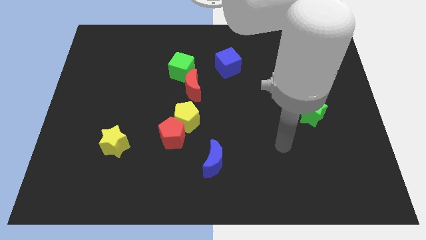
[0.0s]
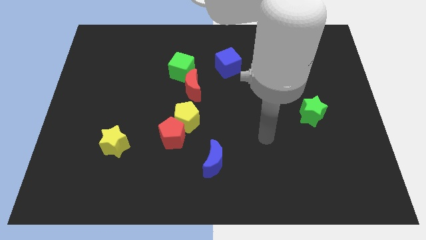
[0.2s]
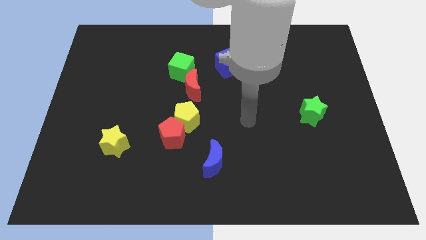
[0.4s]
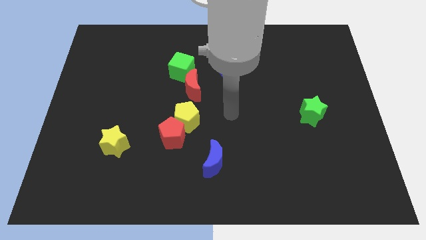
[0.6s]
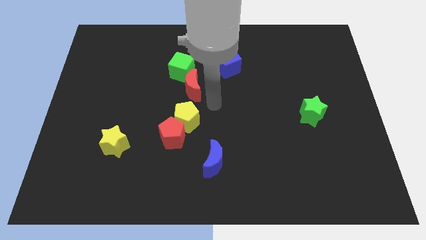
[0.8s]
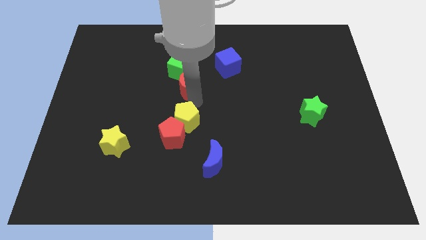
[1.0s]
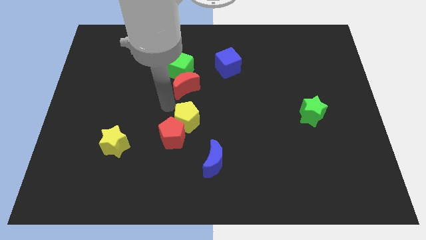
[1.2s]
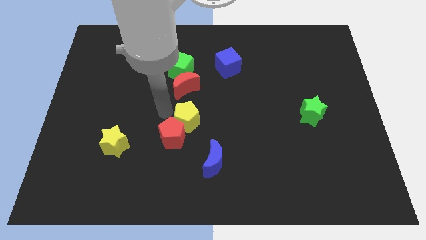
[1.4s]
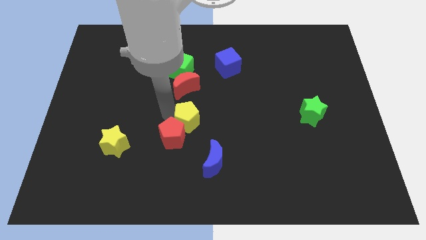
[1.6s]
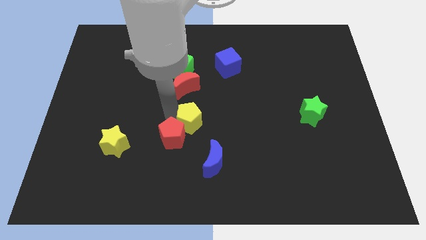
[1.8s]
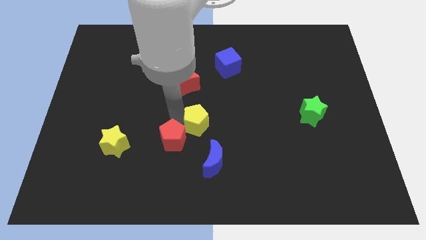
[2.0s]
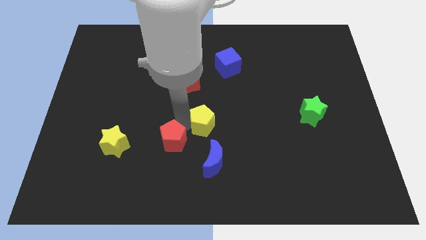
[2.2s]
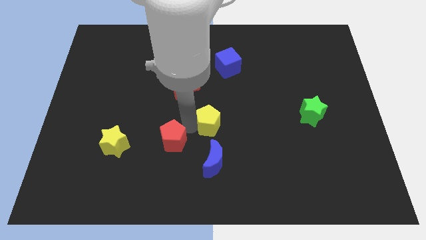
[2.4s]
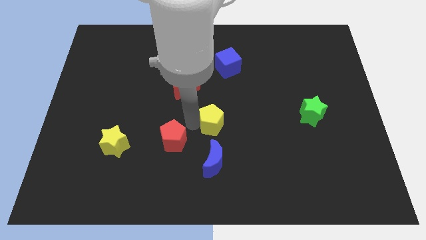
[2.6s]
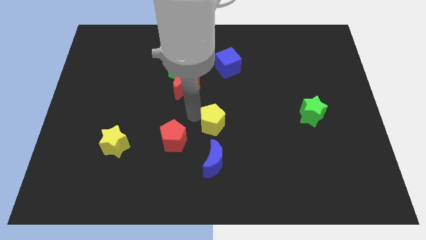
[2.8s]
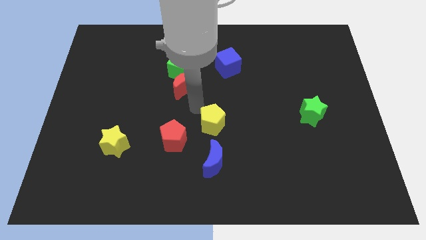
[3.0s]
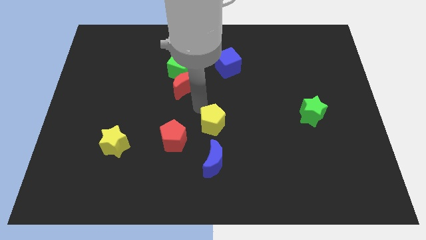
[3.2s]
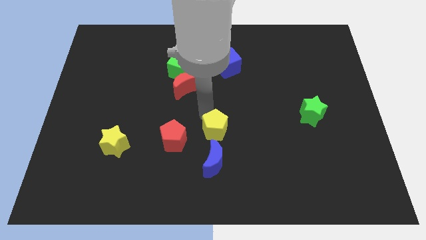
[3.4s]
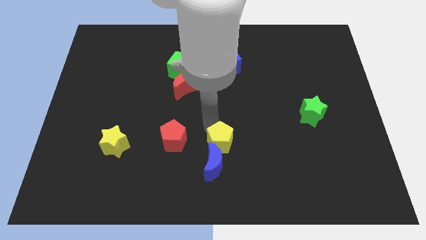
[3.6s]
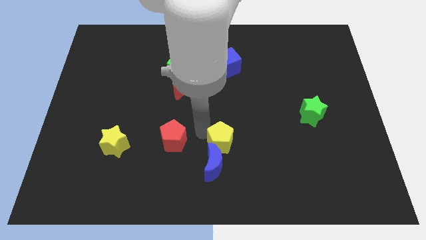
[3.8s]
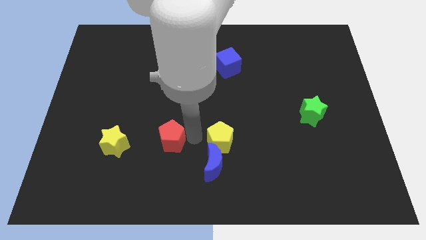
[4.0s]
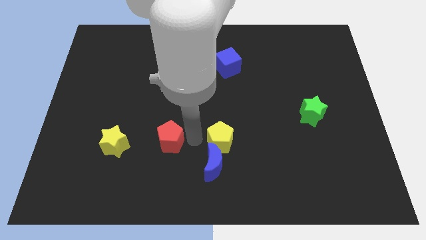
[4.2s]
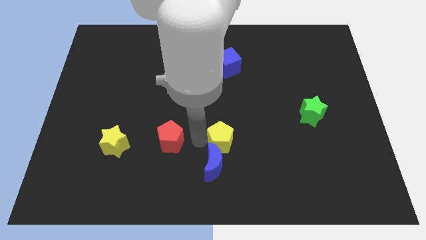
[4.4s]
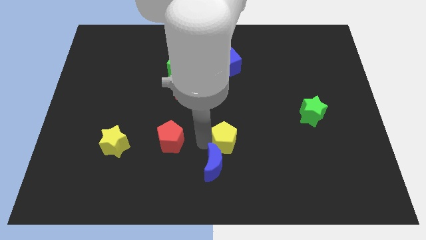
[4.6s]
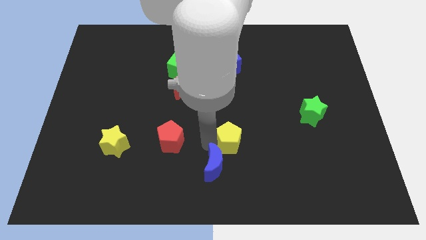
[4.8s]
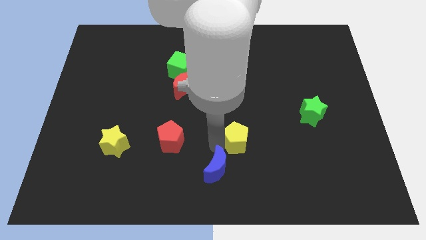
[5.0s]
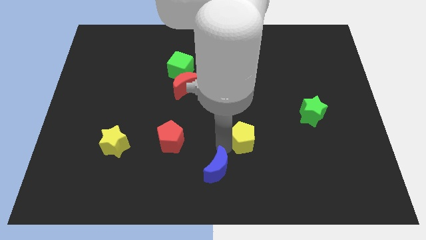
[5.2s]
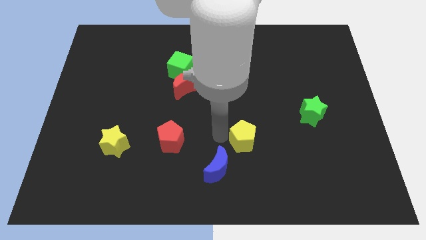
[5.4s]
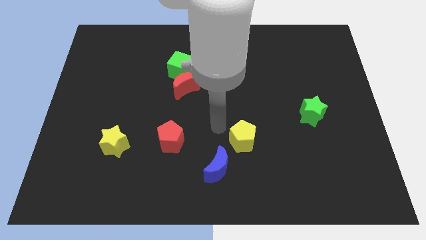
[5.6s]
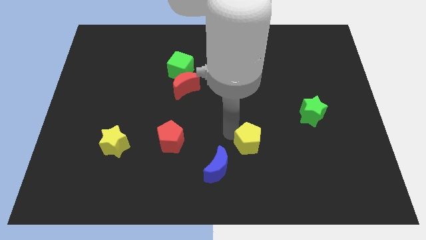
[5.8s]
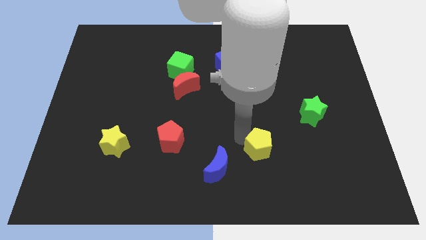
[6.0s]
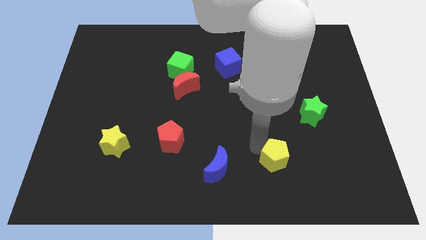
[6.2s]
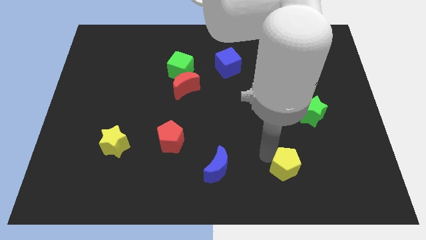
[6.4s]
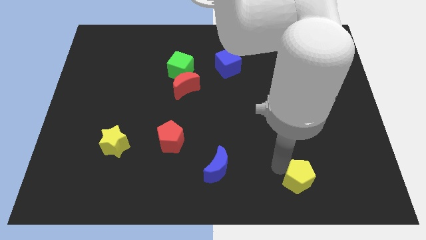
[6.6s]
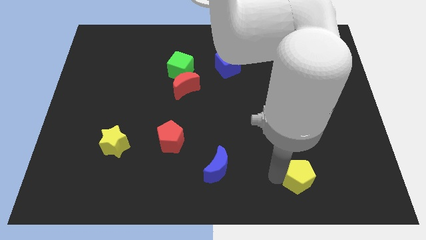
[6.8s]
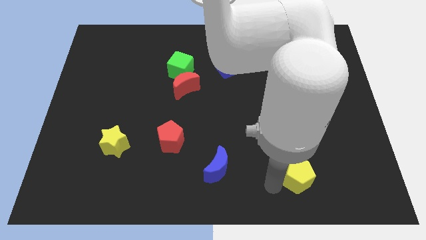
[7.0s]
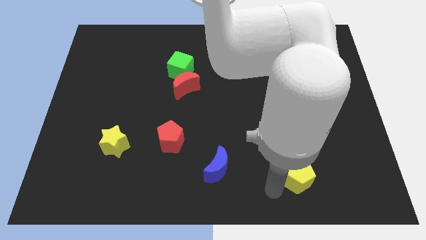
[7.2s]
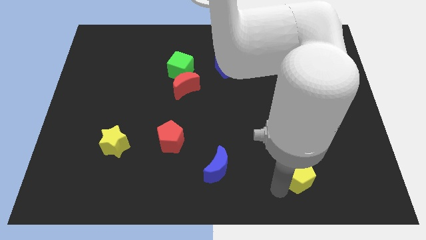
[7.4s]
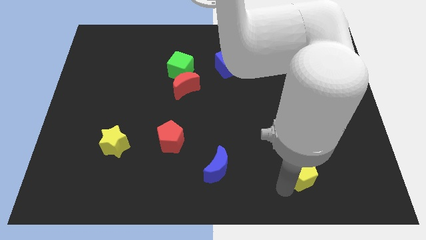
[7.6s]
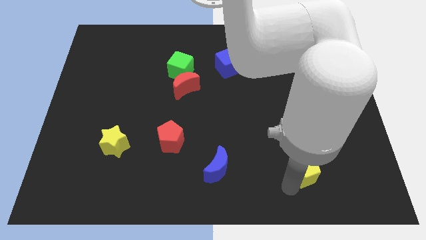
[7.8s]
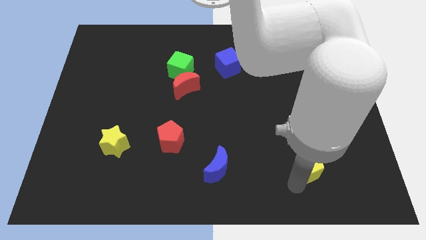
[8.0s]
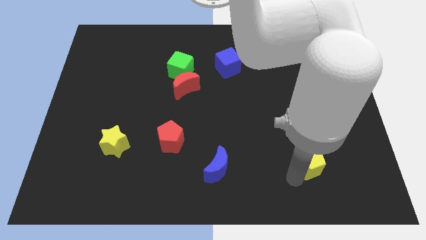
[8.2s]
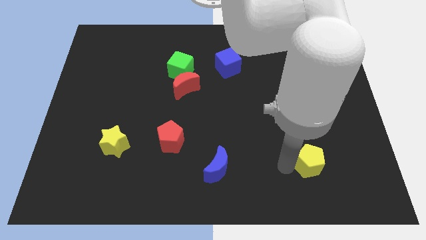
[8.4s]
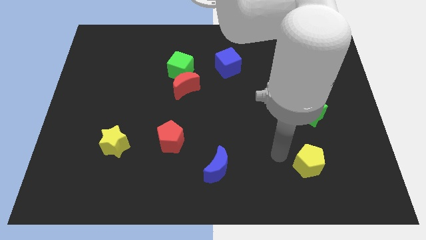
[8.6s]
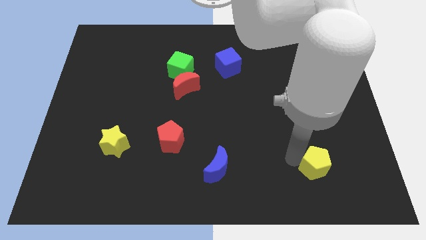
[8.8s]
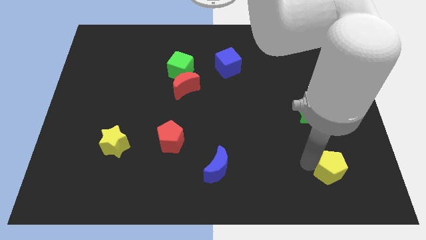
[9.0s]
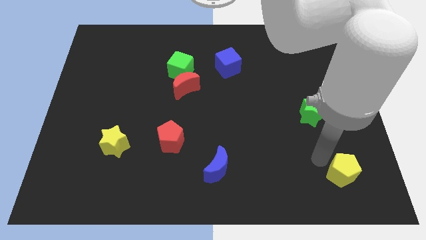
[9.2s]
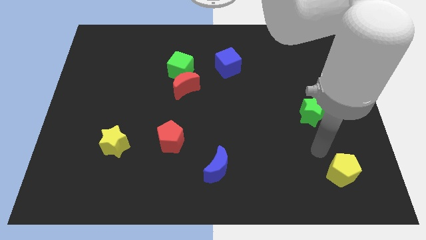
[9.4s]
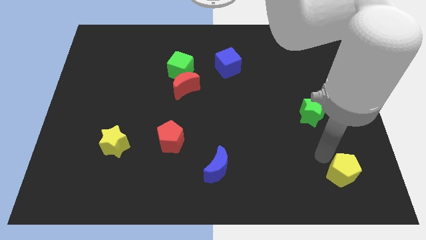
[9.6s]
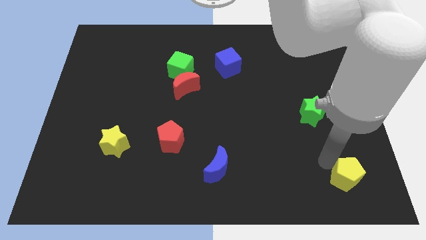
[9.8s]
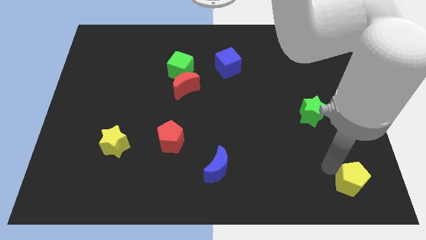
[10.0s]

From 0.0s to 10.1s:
put the yellow pentagon to the lower right corner

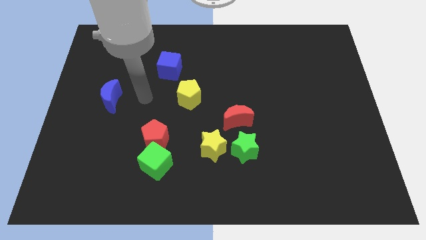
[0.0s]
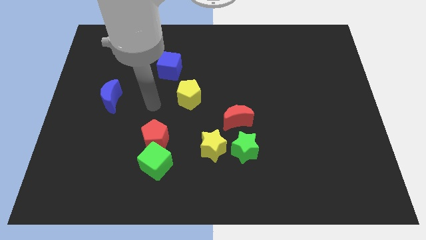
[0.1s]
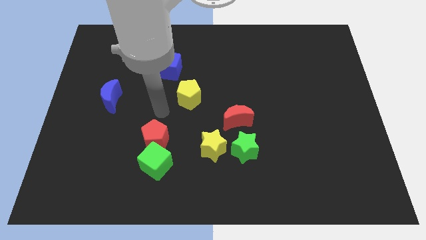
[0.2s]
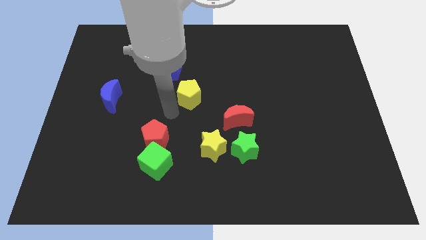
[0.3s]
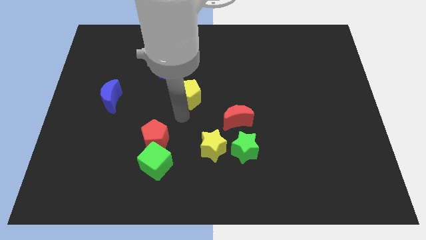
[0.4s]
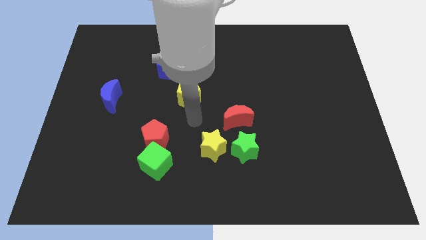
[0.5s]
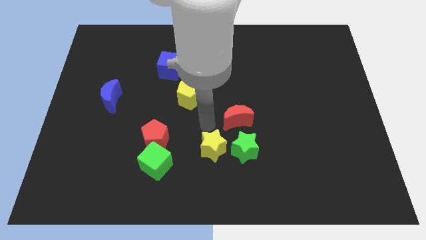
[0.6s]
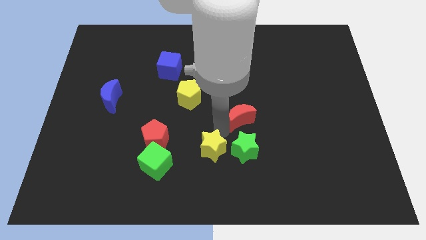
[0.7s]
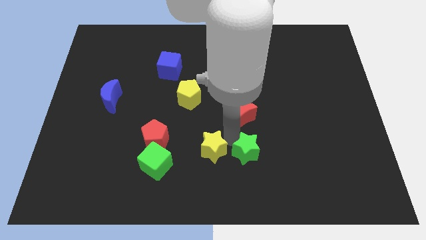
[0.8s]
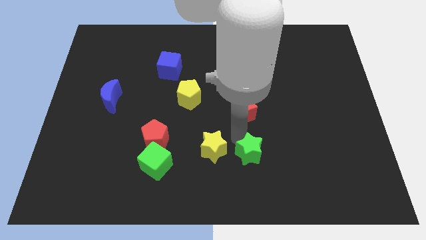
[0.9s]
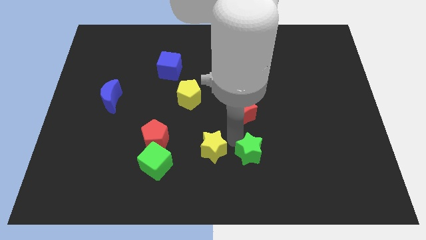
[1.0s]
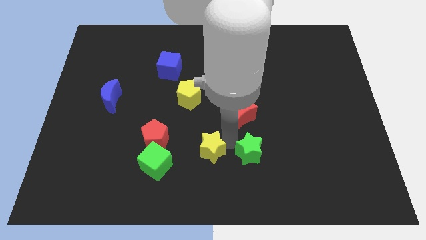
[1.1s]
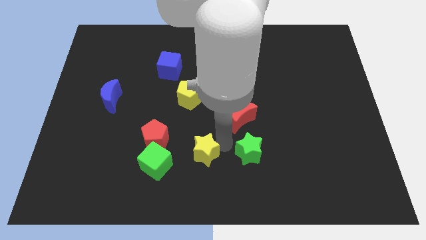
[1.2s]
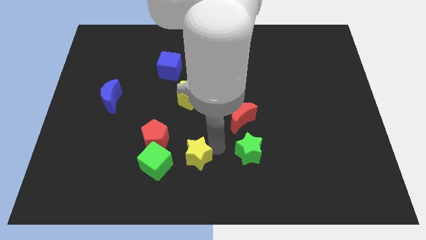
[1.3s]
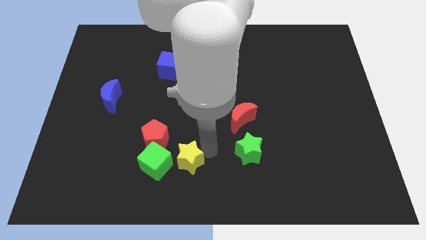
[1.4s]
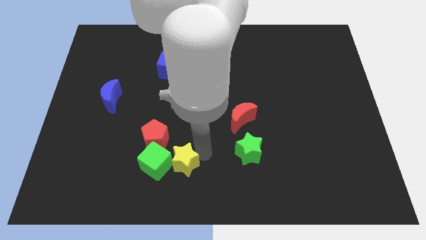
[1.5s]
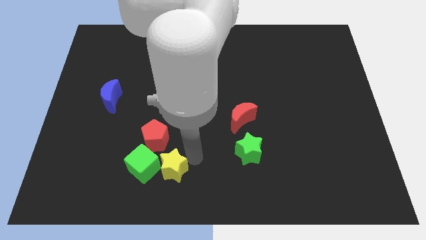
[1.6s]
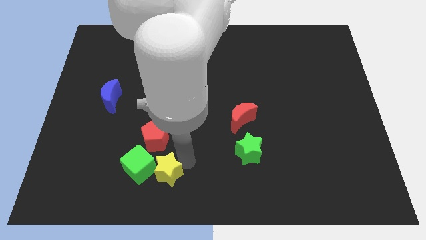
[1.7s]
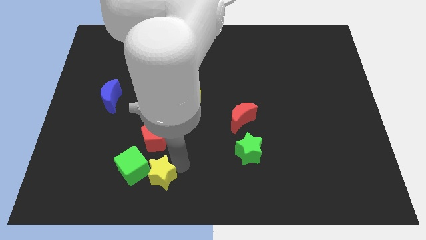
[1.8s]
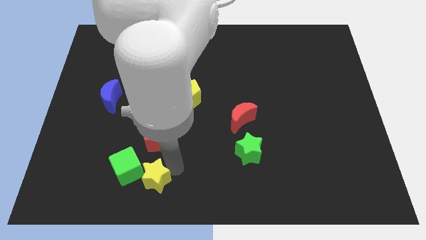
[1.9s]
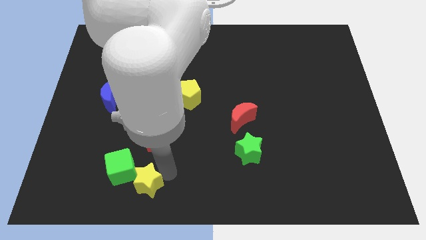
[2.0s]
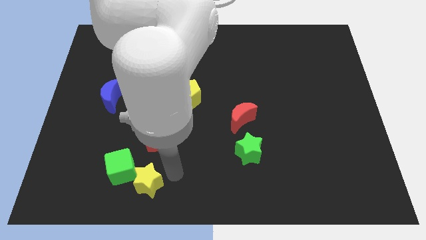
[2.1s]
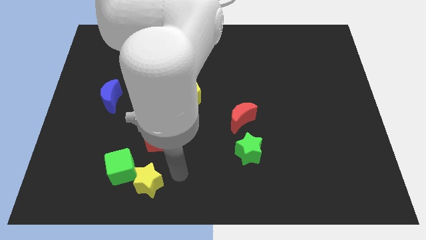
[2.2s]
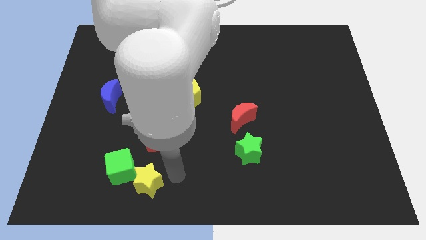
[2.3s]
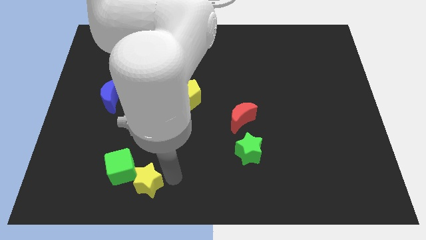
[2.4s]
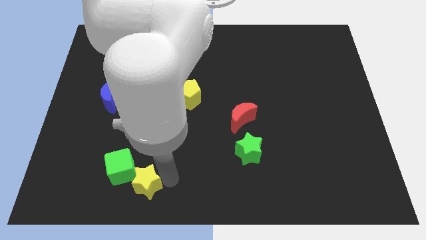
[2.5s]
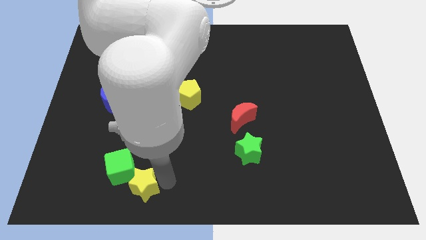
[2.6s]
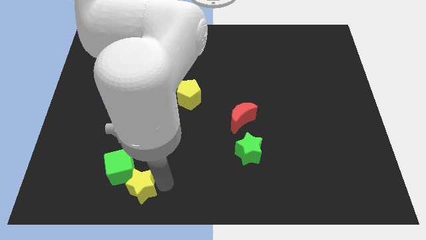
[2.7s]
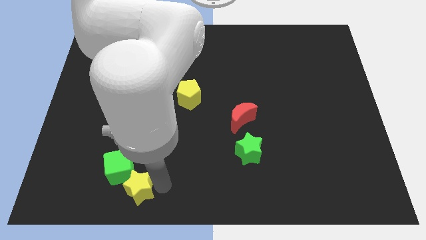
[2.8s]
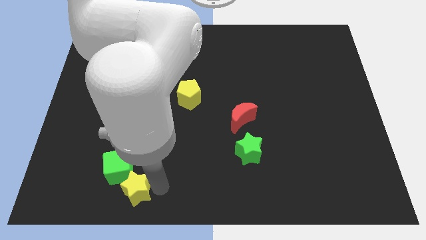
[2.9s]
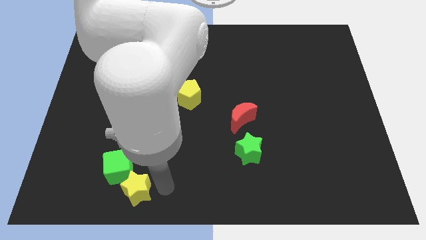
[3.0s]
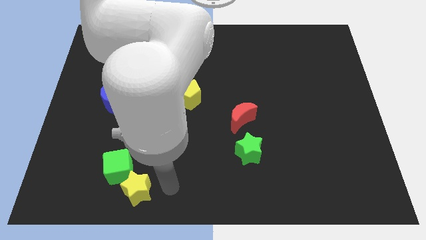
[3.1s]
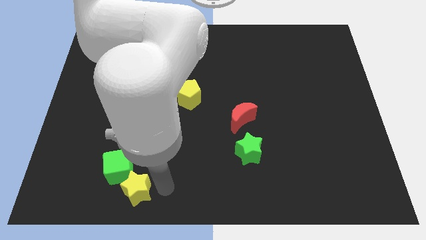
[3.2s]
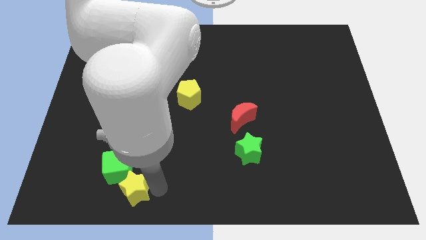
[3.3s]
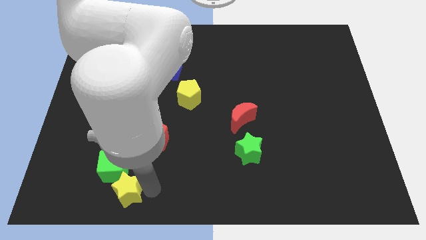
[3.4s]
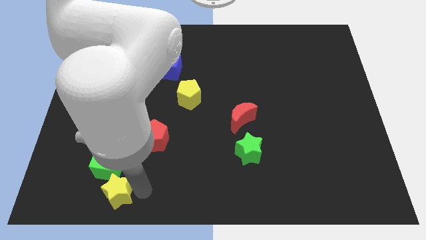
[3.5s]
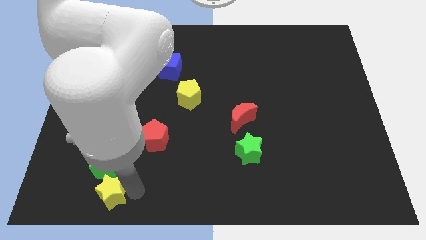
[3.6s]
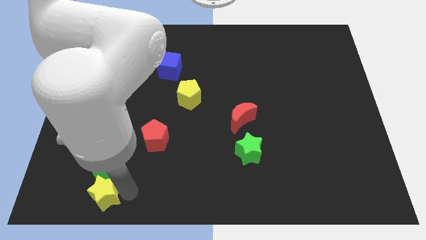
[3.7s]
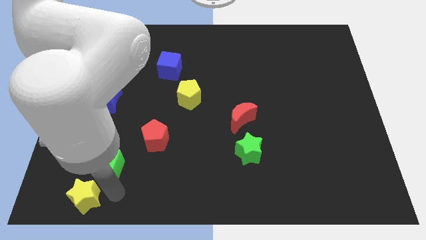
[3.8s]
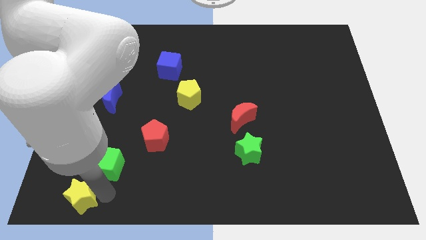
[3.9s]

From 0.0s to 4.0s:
move the yellow star to the lower left corner
